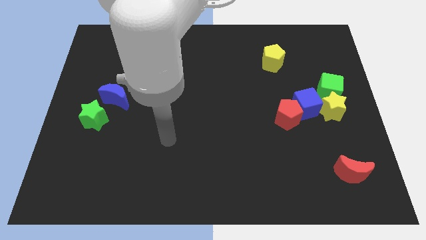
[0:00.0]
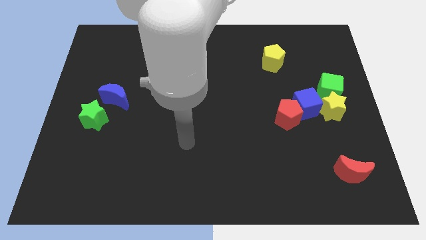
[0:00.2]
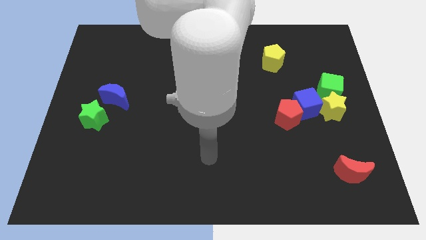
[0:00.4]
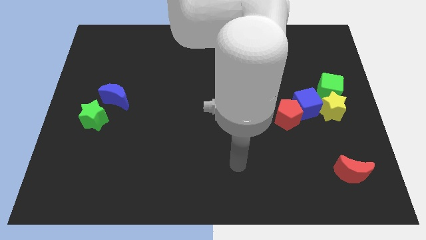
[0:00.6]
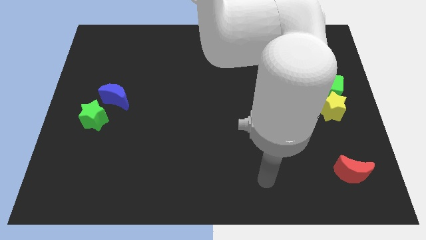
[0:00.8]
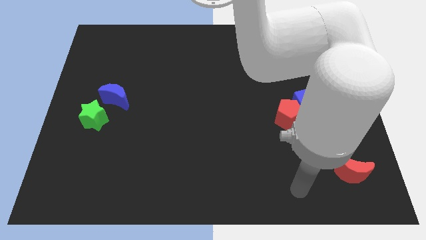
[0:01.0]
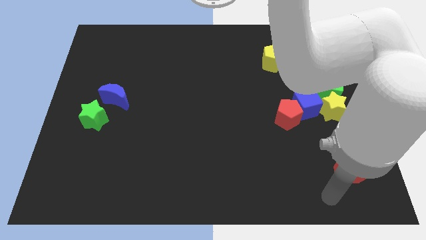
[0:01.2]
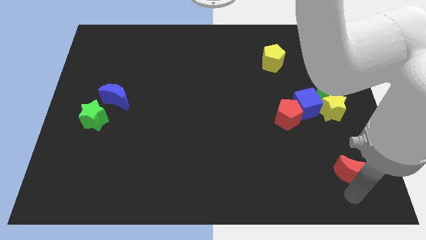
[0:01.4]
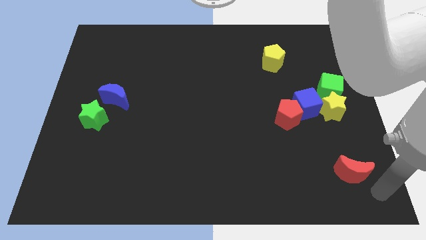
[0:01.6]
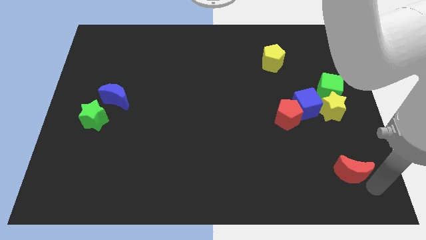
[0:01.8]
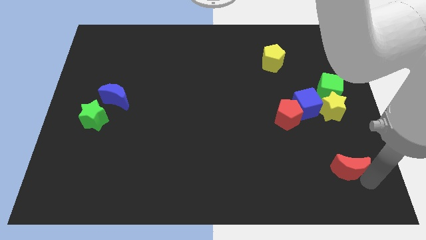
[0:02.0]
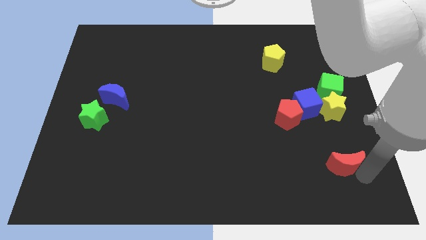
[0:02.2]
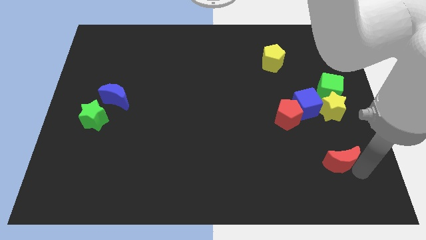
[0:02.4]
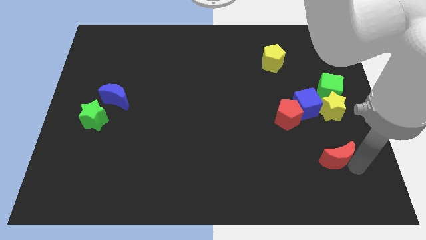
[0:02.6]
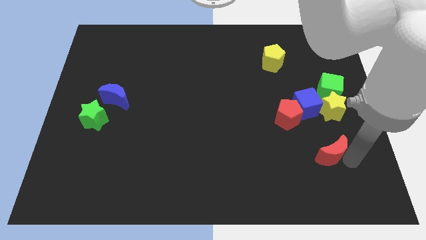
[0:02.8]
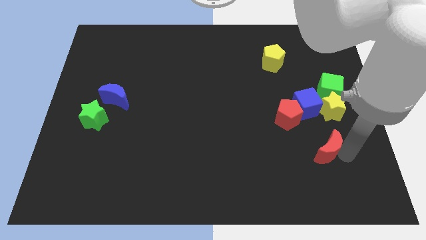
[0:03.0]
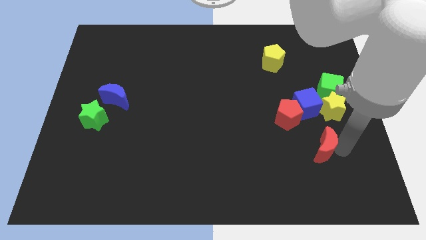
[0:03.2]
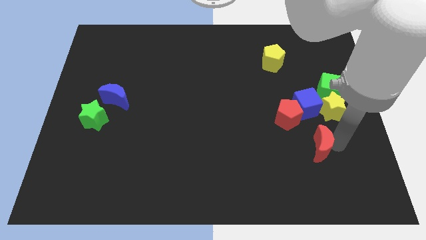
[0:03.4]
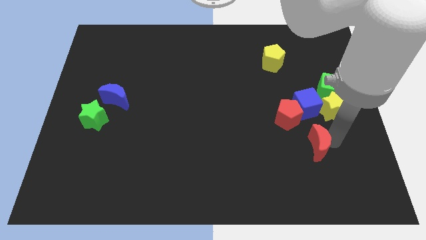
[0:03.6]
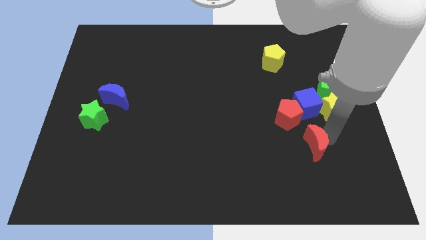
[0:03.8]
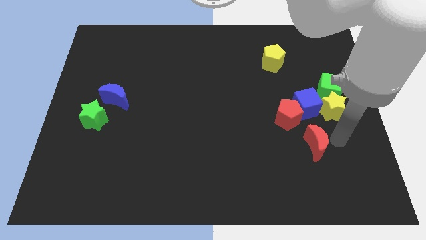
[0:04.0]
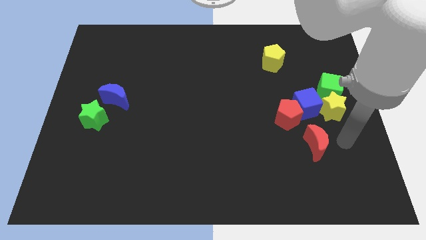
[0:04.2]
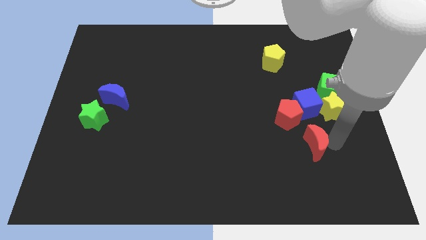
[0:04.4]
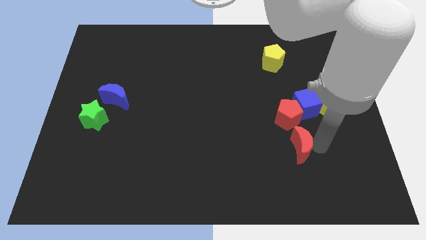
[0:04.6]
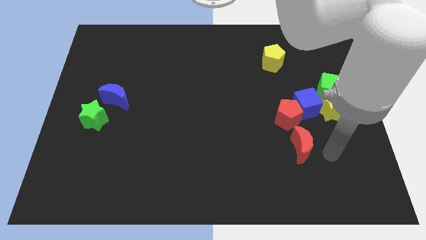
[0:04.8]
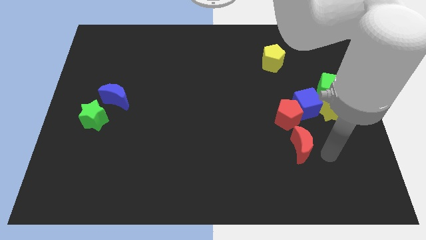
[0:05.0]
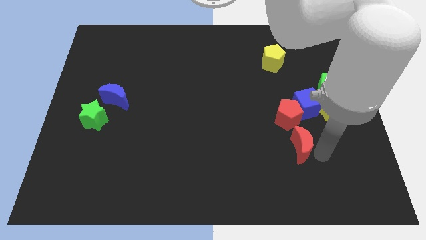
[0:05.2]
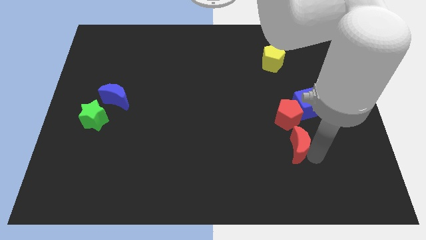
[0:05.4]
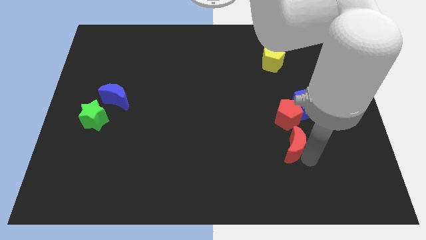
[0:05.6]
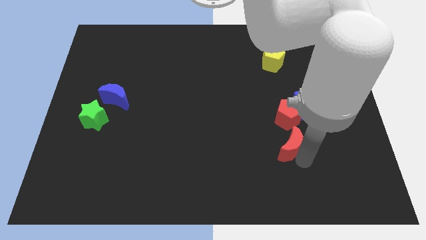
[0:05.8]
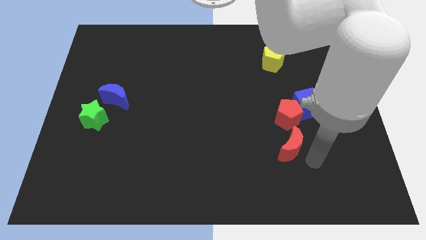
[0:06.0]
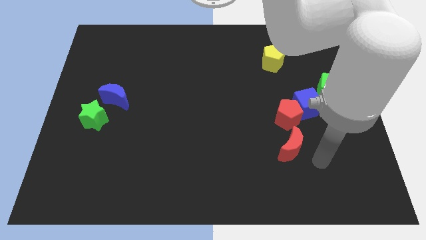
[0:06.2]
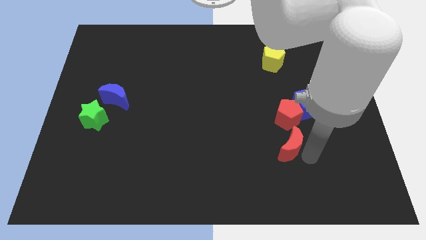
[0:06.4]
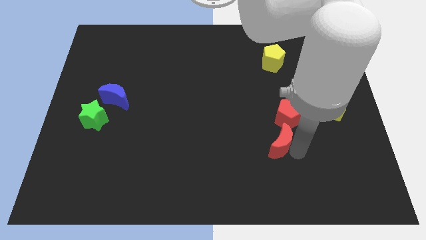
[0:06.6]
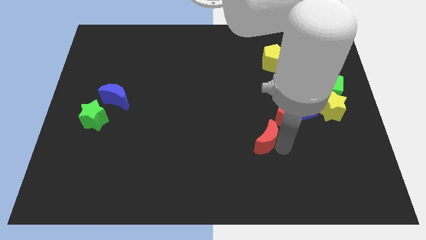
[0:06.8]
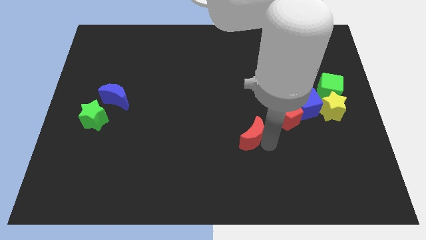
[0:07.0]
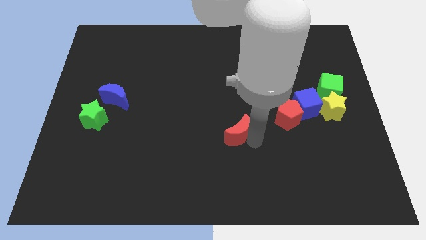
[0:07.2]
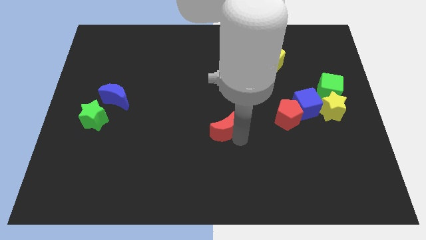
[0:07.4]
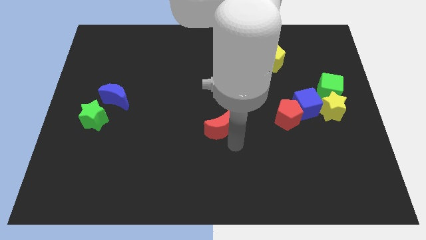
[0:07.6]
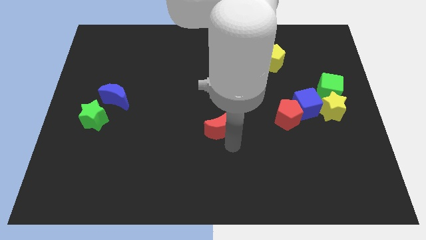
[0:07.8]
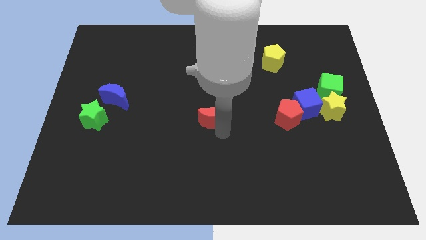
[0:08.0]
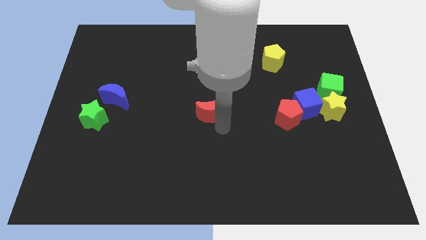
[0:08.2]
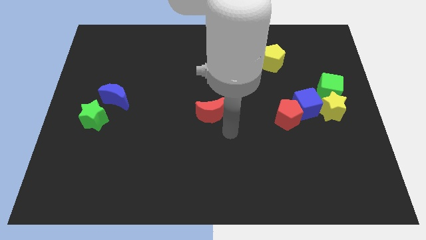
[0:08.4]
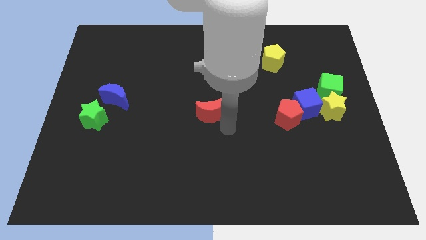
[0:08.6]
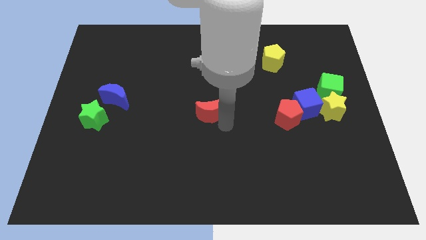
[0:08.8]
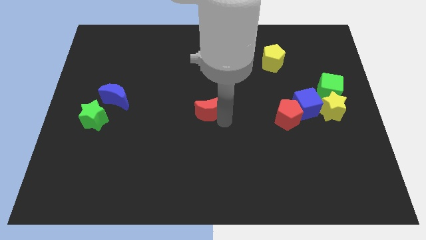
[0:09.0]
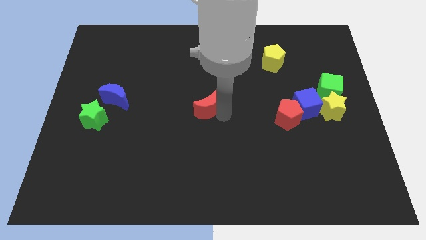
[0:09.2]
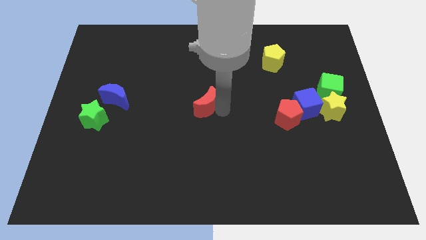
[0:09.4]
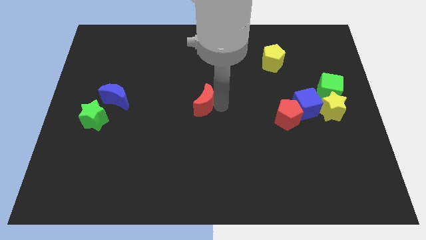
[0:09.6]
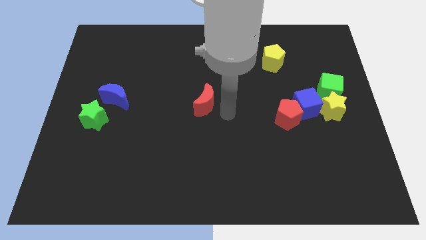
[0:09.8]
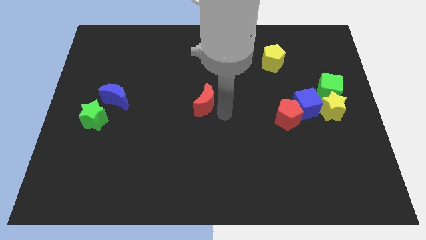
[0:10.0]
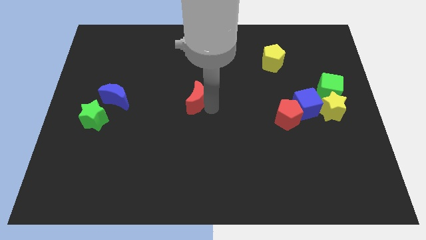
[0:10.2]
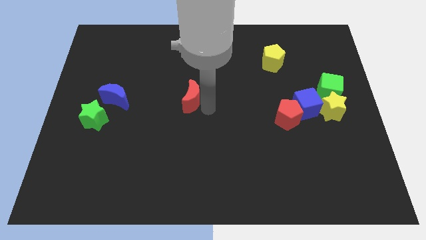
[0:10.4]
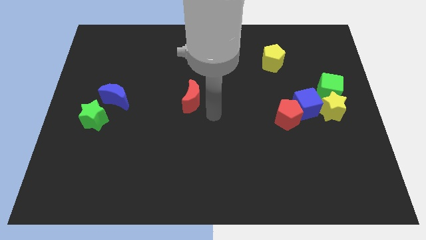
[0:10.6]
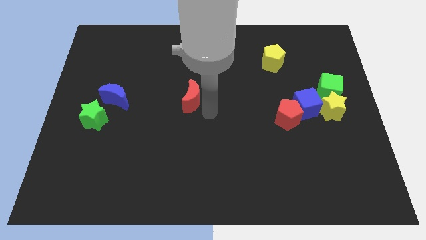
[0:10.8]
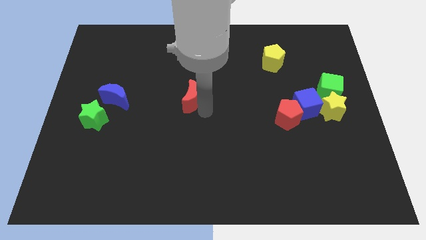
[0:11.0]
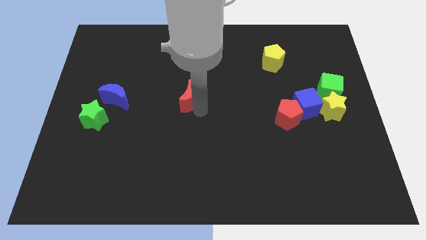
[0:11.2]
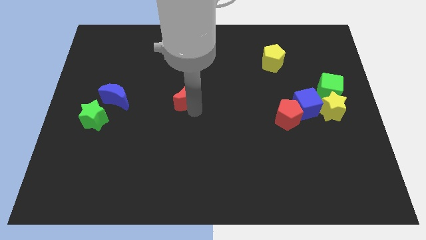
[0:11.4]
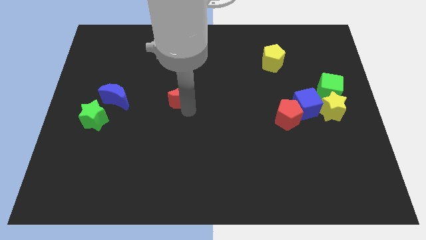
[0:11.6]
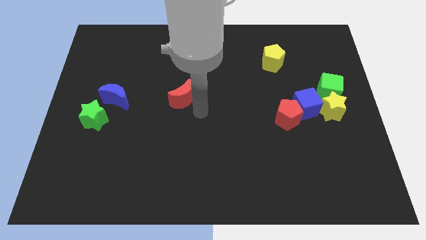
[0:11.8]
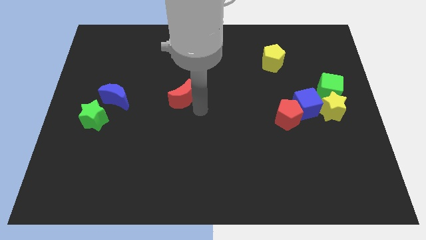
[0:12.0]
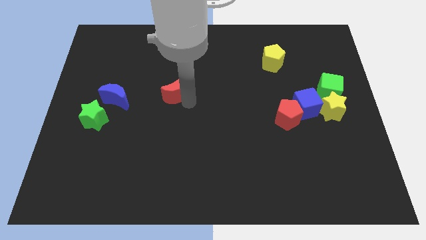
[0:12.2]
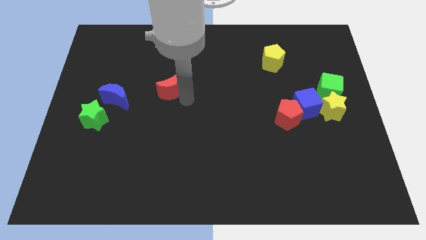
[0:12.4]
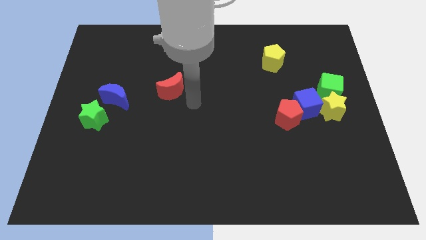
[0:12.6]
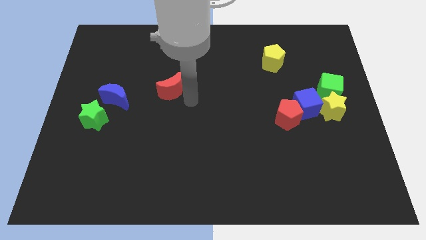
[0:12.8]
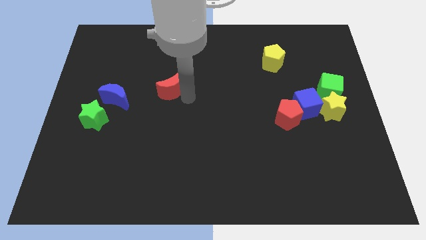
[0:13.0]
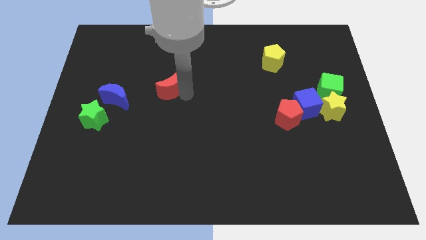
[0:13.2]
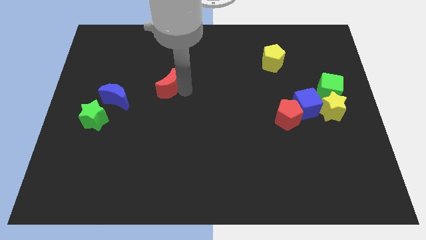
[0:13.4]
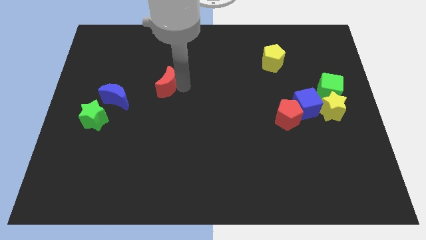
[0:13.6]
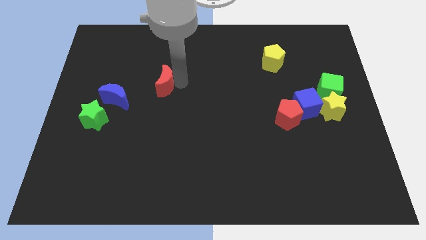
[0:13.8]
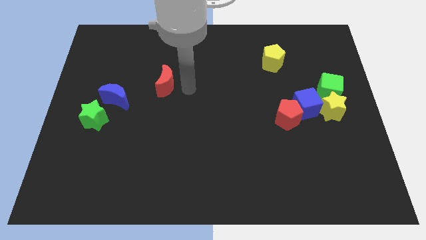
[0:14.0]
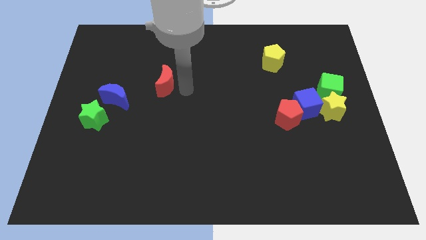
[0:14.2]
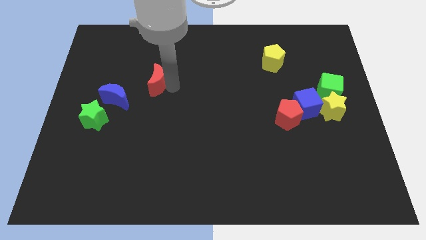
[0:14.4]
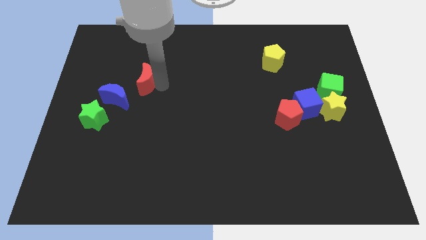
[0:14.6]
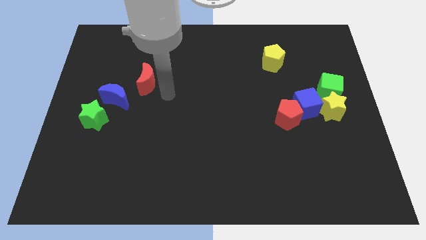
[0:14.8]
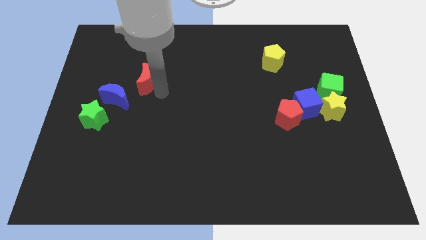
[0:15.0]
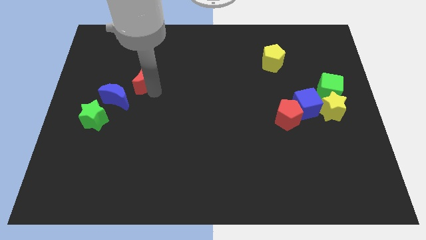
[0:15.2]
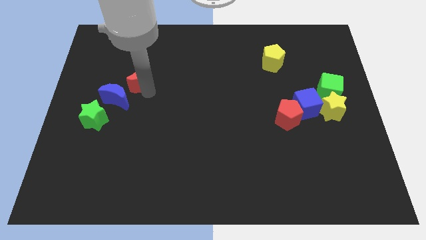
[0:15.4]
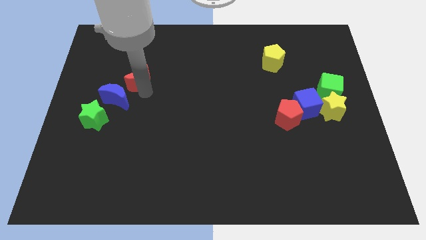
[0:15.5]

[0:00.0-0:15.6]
put the red moon above the blue moon
